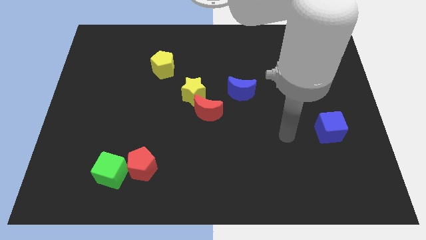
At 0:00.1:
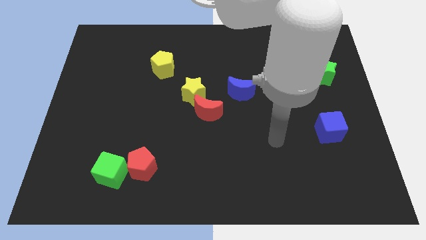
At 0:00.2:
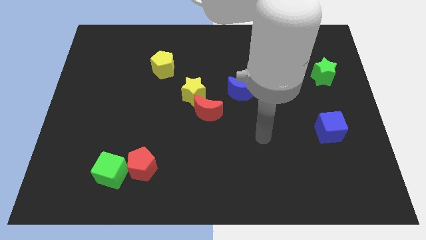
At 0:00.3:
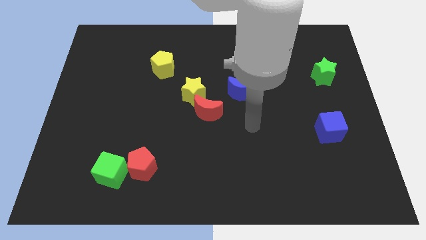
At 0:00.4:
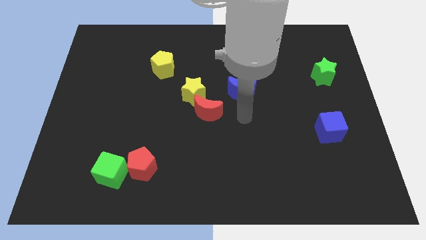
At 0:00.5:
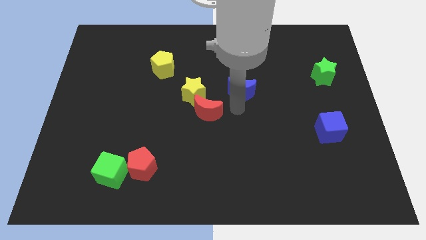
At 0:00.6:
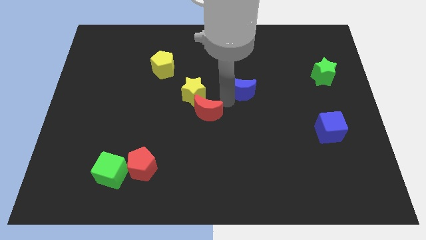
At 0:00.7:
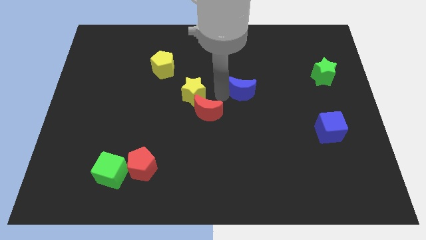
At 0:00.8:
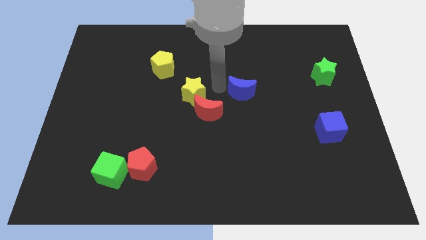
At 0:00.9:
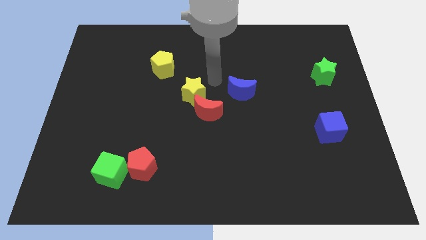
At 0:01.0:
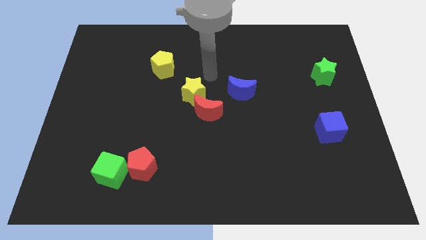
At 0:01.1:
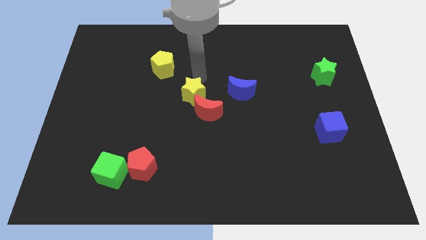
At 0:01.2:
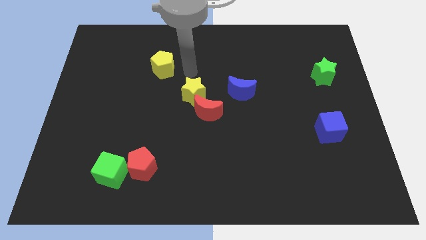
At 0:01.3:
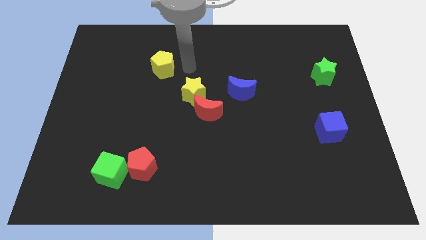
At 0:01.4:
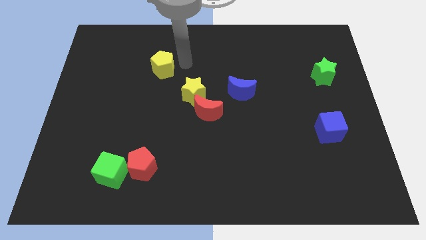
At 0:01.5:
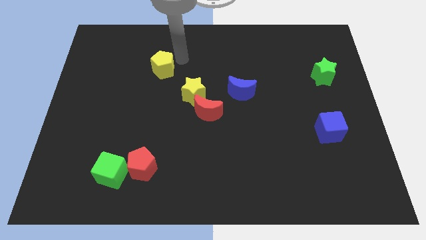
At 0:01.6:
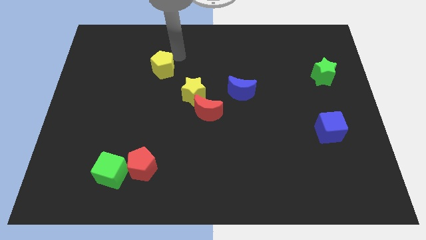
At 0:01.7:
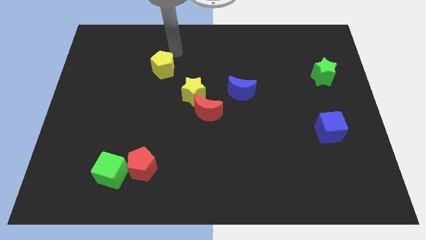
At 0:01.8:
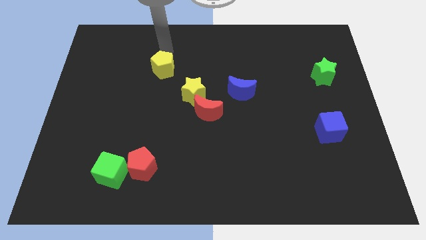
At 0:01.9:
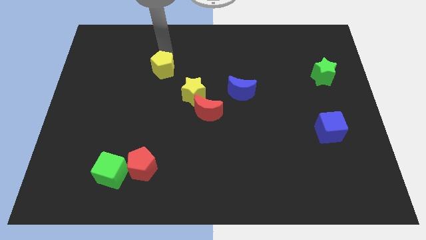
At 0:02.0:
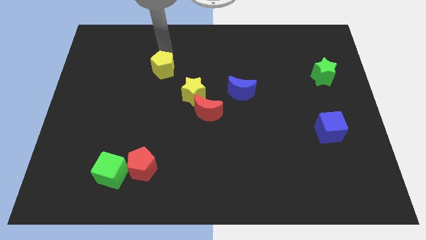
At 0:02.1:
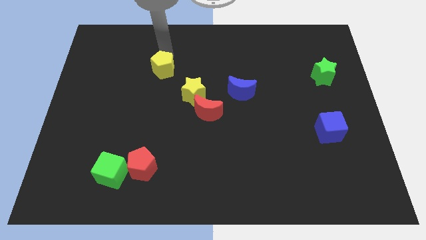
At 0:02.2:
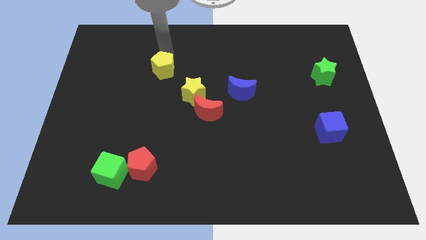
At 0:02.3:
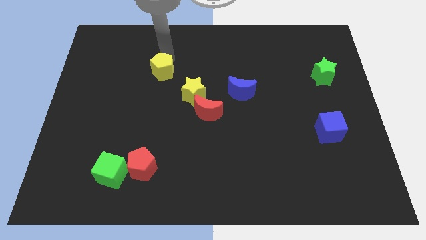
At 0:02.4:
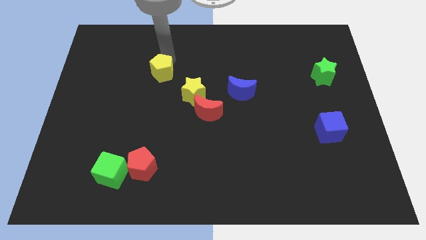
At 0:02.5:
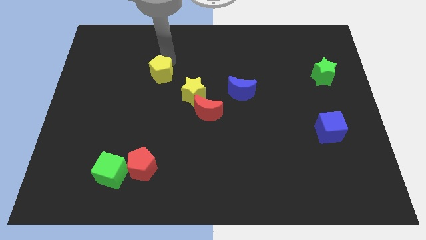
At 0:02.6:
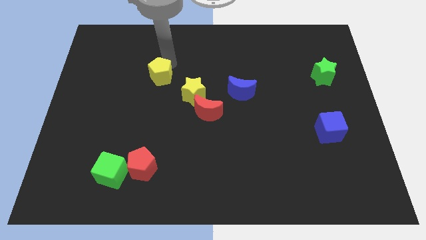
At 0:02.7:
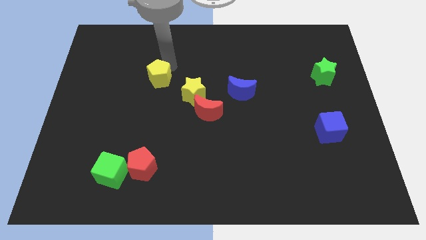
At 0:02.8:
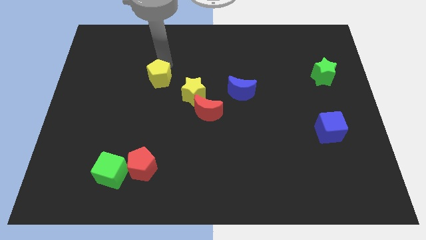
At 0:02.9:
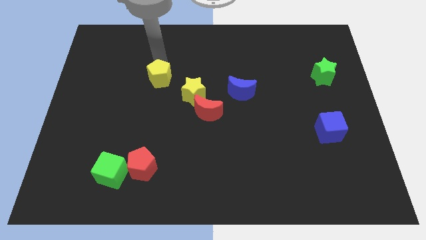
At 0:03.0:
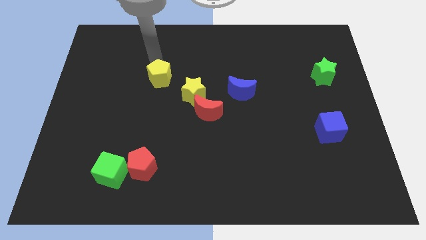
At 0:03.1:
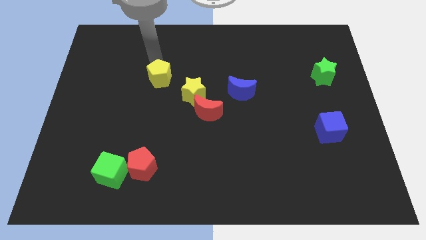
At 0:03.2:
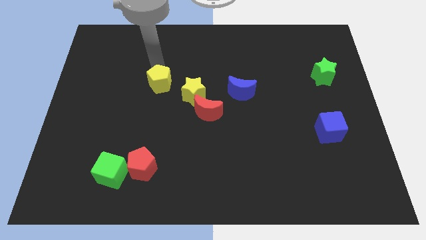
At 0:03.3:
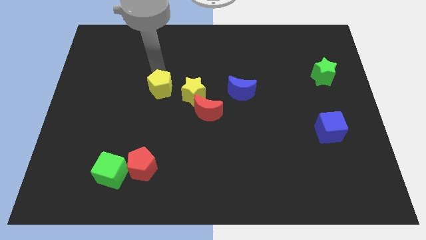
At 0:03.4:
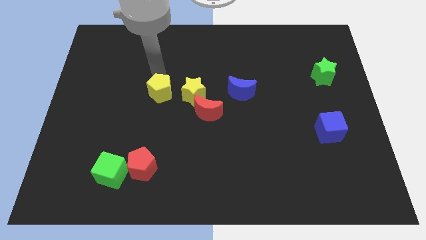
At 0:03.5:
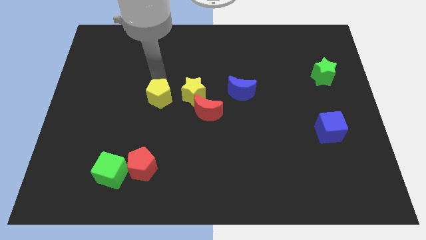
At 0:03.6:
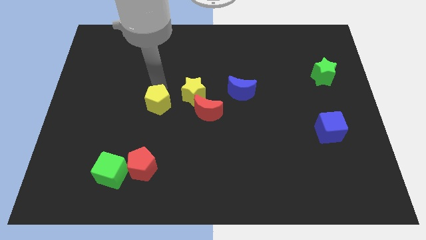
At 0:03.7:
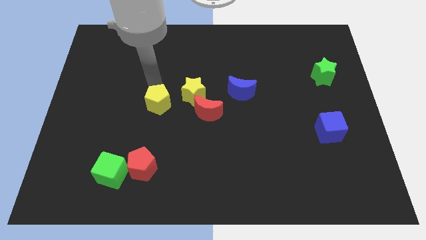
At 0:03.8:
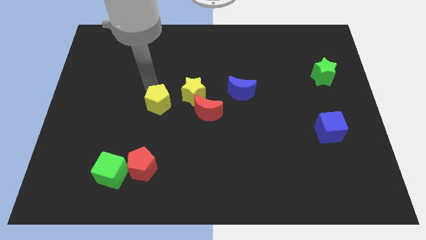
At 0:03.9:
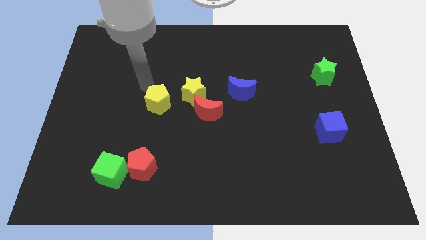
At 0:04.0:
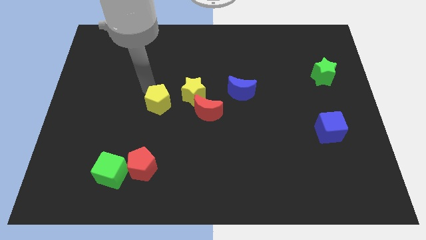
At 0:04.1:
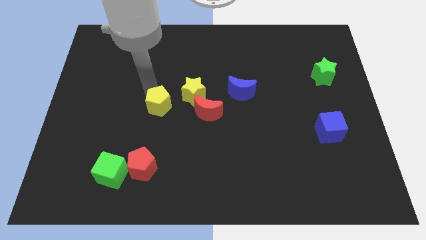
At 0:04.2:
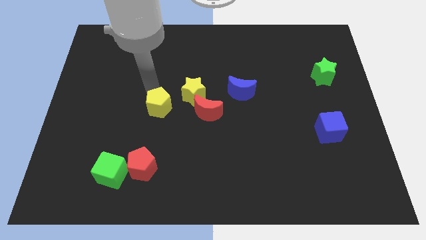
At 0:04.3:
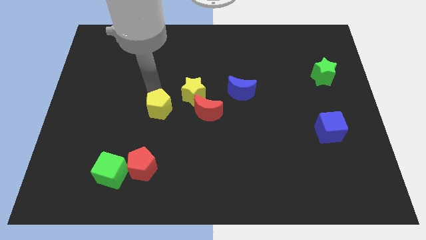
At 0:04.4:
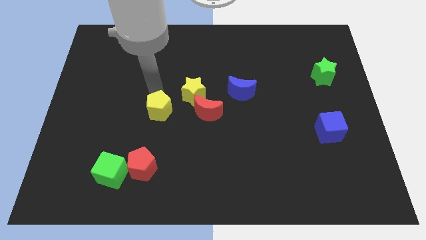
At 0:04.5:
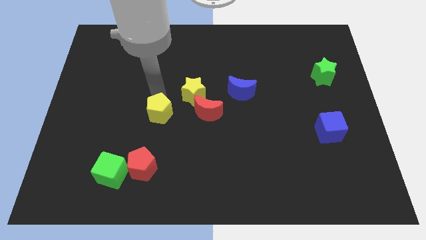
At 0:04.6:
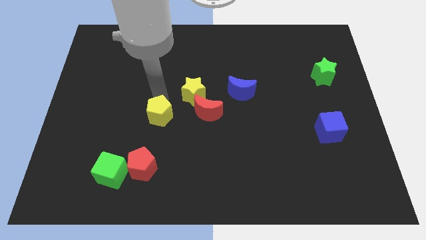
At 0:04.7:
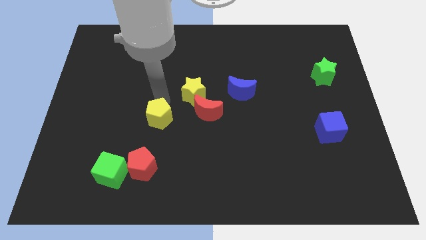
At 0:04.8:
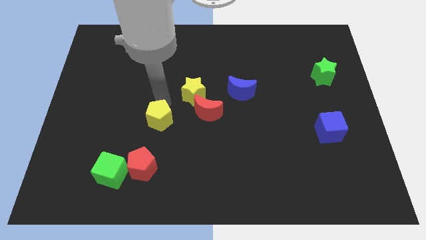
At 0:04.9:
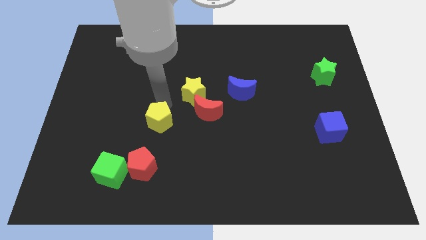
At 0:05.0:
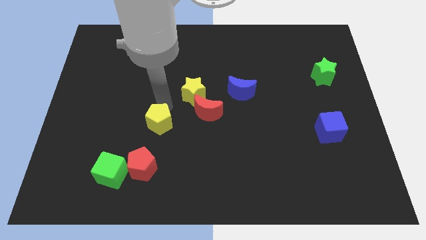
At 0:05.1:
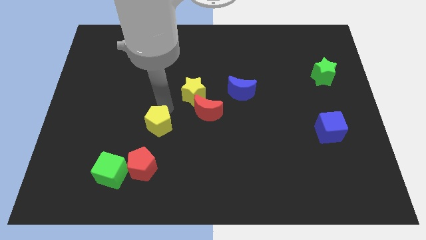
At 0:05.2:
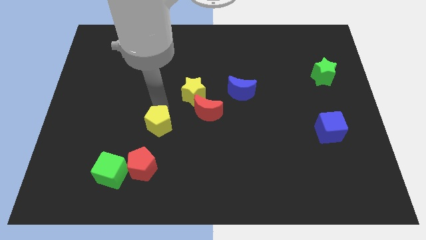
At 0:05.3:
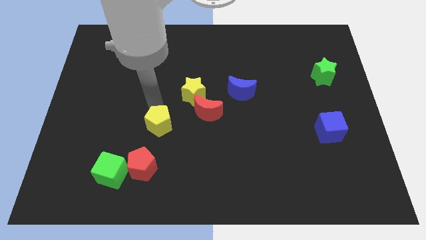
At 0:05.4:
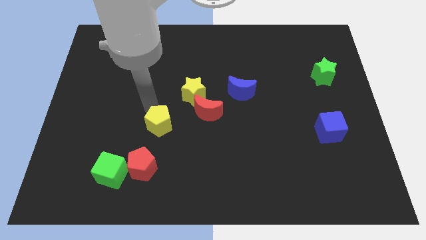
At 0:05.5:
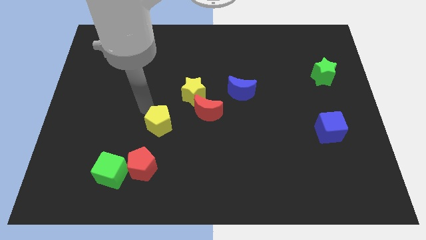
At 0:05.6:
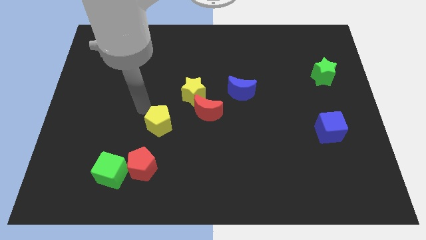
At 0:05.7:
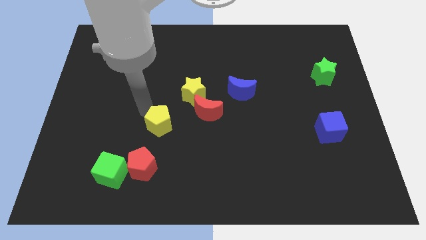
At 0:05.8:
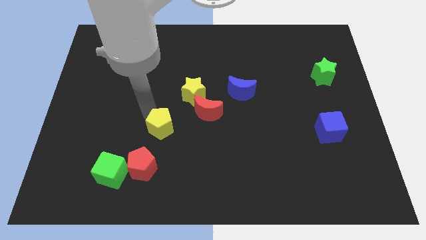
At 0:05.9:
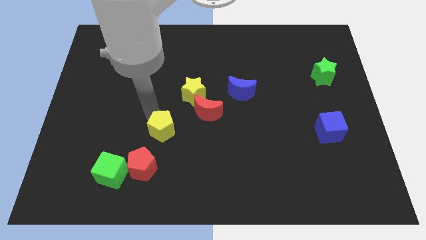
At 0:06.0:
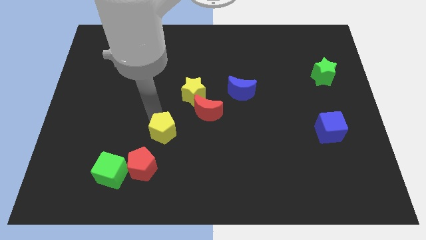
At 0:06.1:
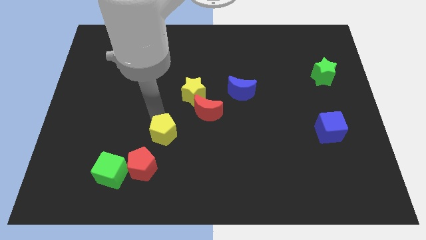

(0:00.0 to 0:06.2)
move the yellow pentagon down

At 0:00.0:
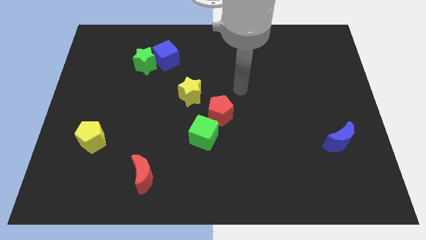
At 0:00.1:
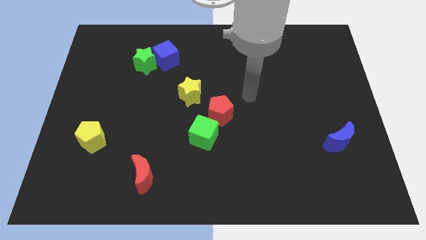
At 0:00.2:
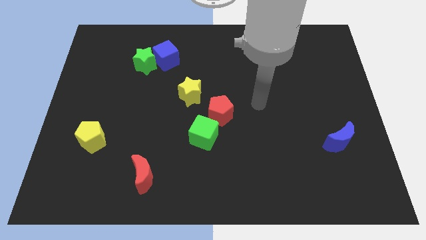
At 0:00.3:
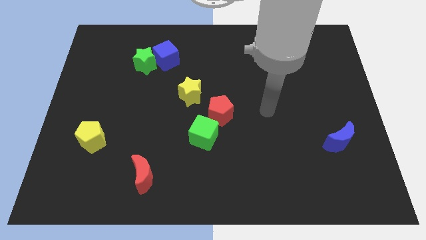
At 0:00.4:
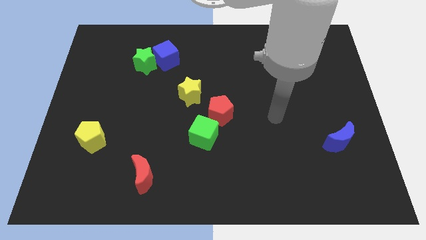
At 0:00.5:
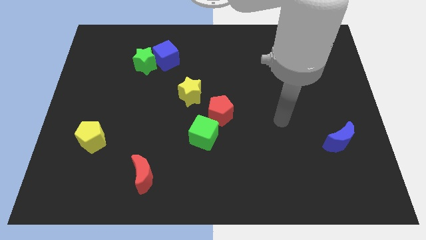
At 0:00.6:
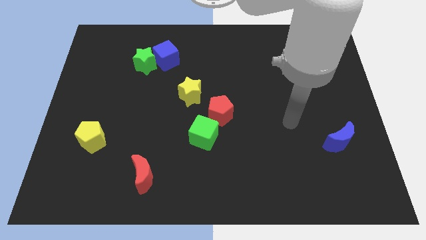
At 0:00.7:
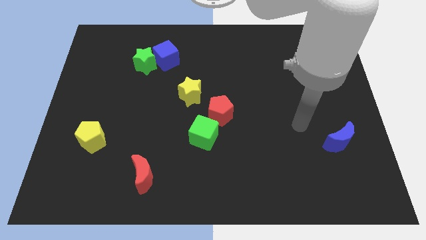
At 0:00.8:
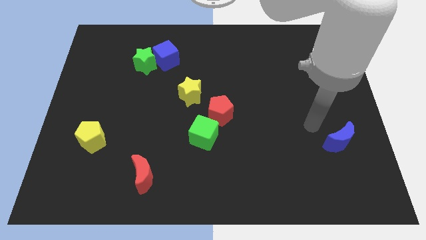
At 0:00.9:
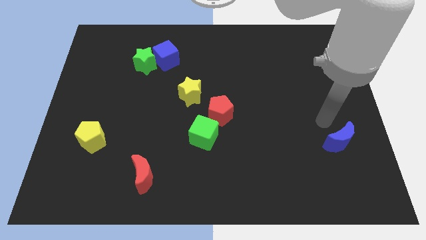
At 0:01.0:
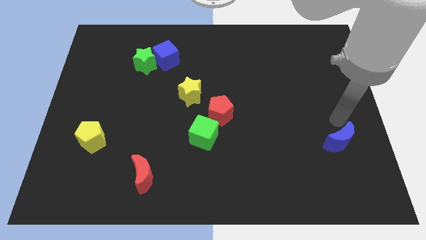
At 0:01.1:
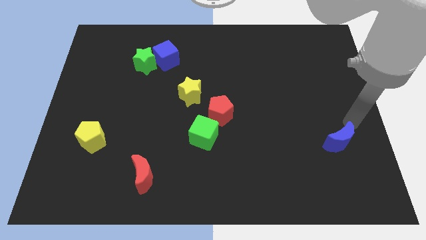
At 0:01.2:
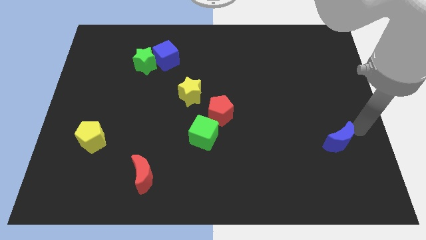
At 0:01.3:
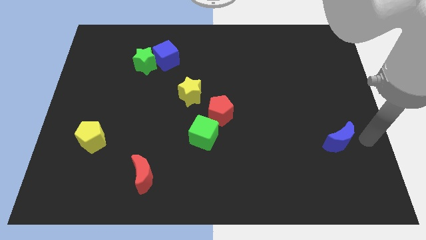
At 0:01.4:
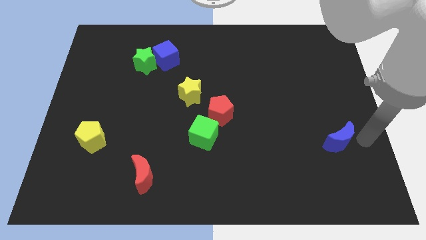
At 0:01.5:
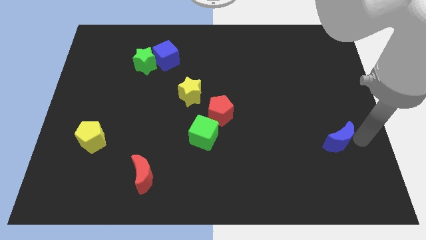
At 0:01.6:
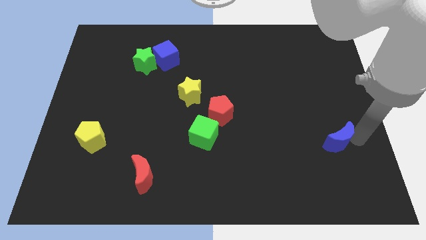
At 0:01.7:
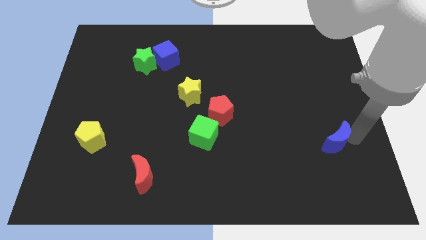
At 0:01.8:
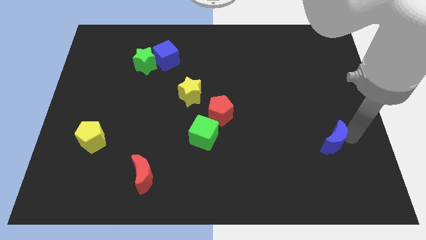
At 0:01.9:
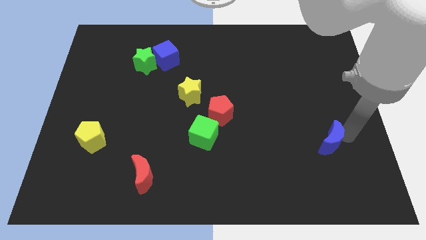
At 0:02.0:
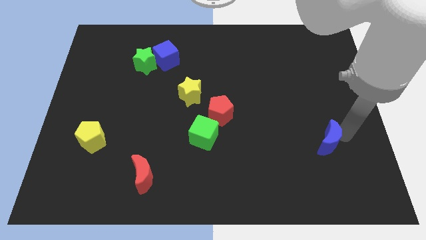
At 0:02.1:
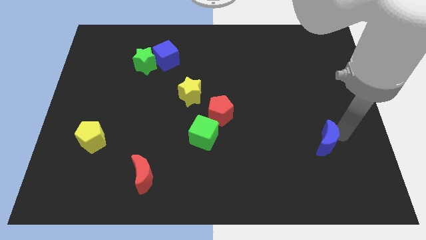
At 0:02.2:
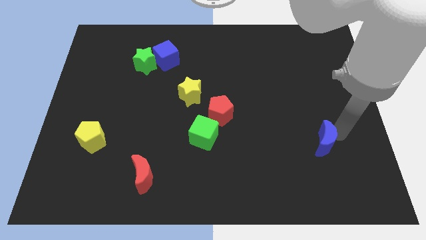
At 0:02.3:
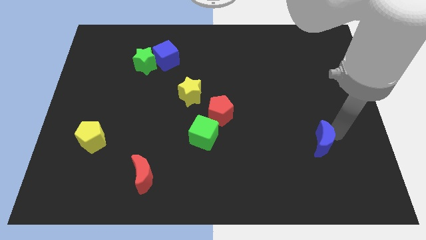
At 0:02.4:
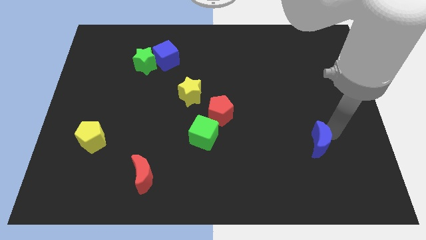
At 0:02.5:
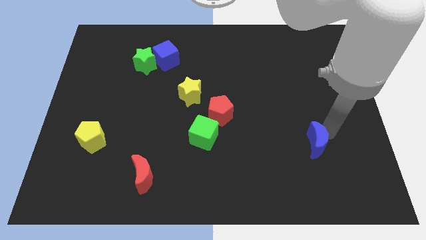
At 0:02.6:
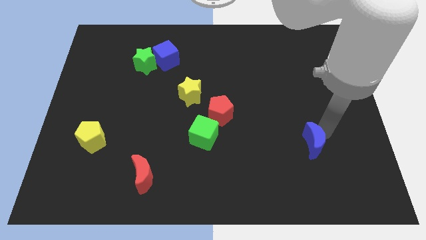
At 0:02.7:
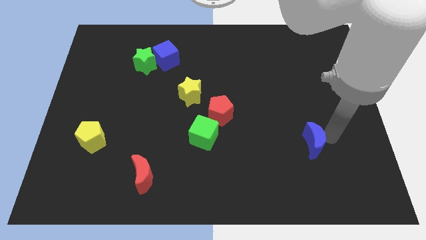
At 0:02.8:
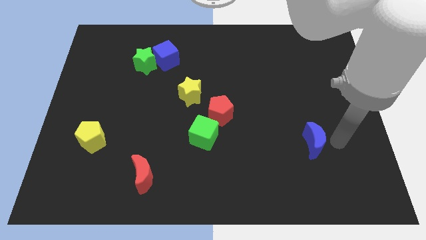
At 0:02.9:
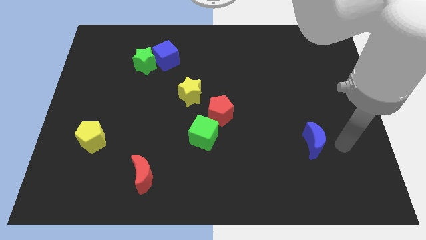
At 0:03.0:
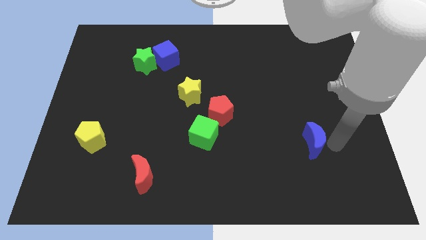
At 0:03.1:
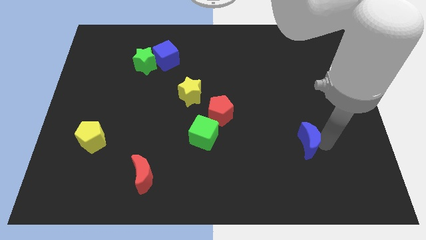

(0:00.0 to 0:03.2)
slightly push the blue moon to the left
